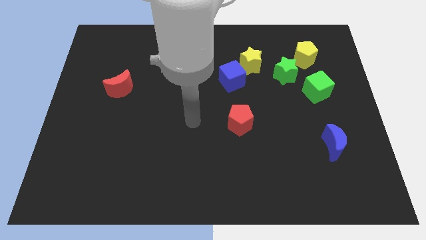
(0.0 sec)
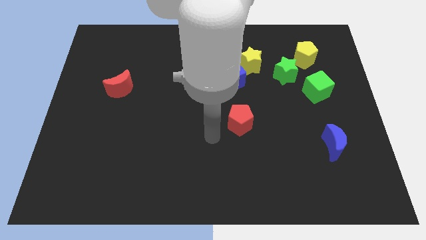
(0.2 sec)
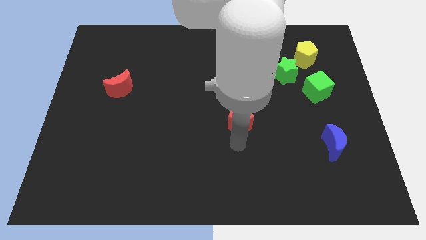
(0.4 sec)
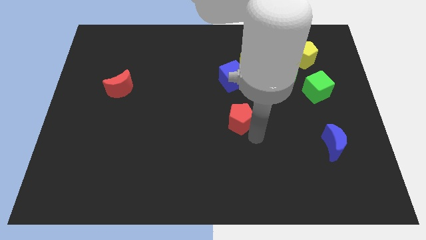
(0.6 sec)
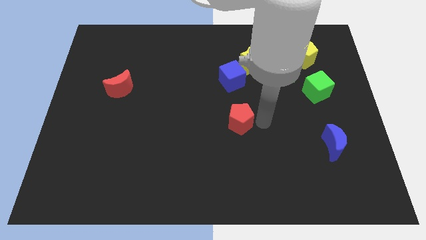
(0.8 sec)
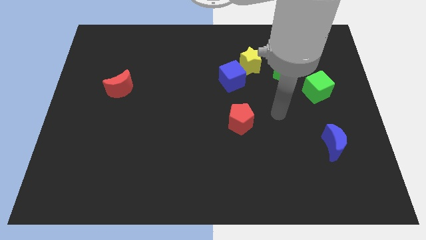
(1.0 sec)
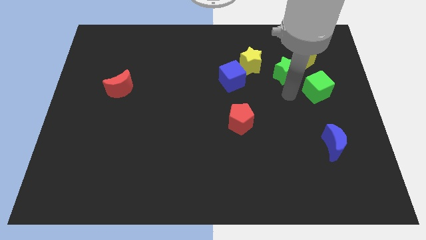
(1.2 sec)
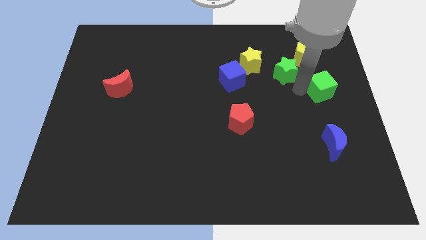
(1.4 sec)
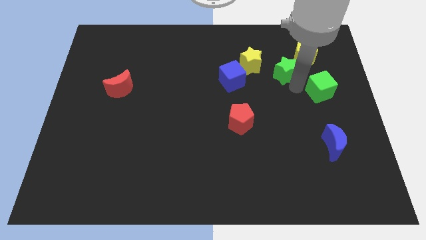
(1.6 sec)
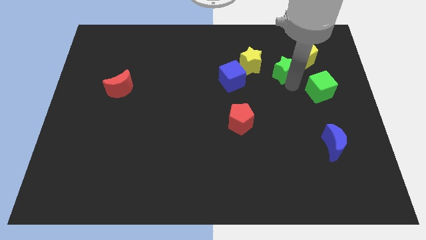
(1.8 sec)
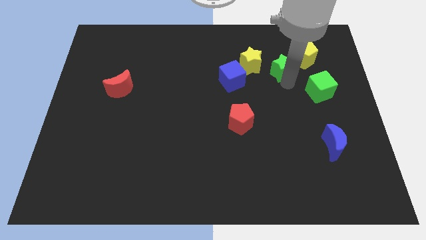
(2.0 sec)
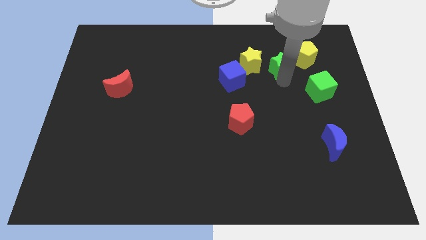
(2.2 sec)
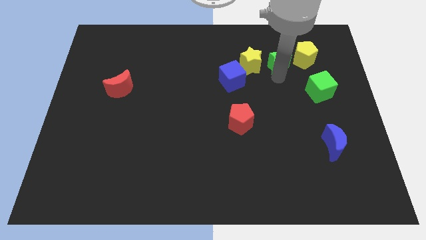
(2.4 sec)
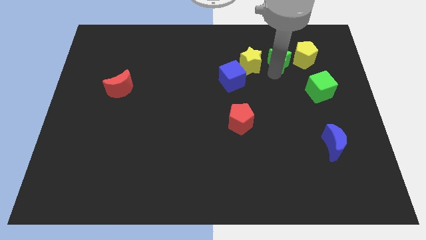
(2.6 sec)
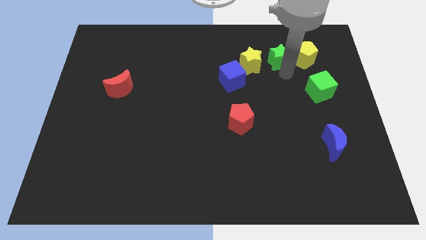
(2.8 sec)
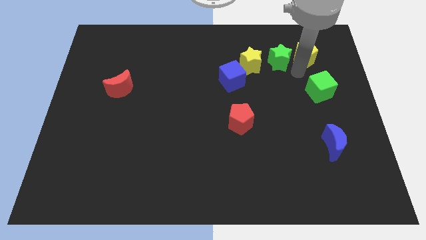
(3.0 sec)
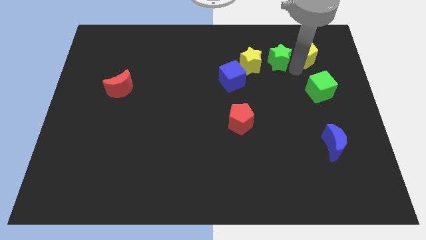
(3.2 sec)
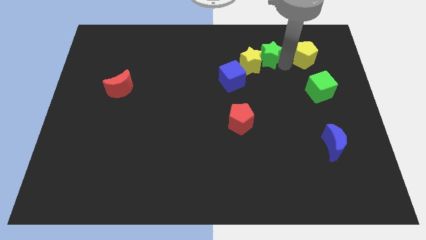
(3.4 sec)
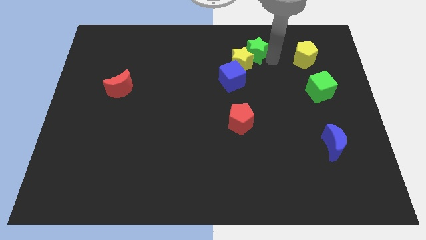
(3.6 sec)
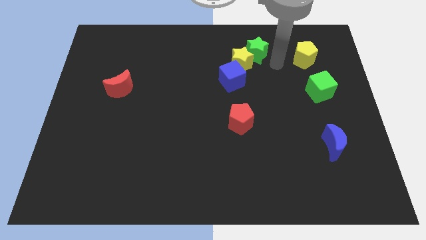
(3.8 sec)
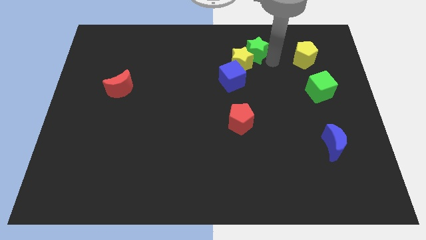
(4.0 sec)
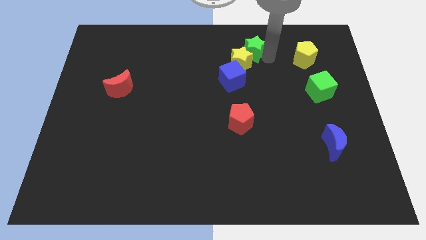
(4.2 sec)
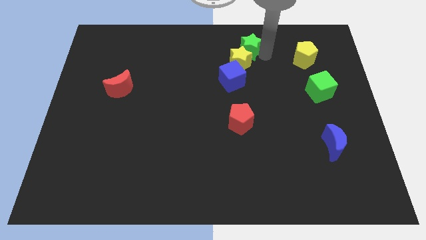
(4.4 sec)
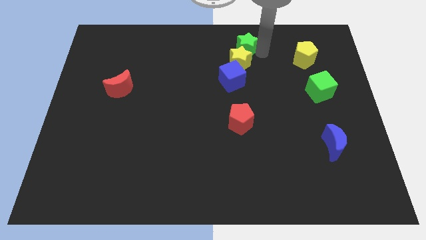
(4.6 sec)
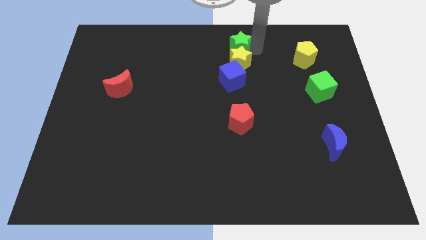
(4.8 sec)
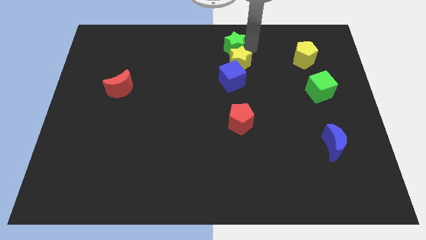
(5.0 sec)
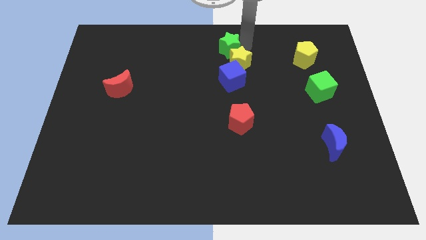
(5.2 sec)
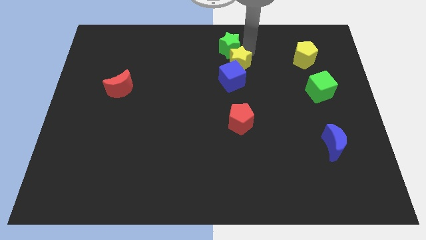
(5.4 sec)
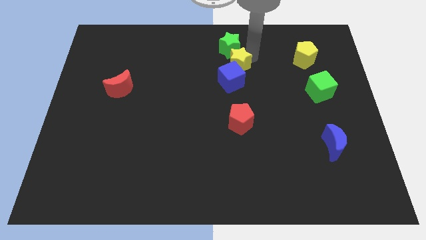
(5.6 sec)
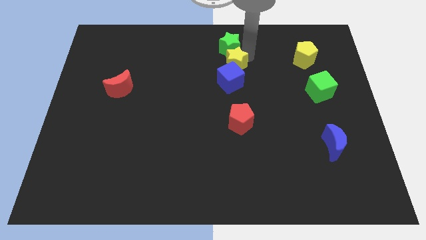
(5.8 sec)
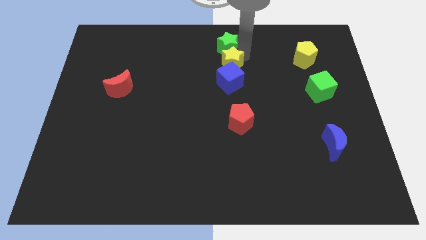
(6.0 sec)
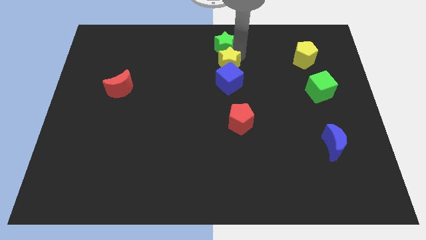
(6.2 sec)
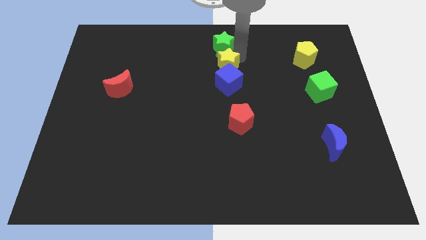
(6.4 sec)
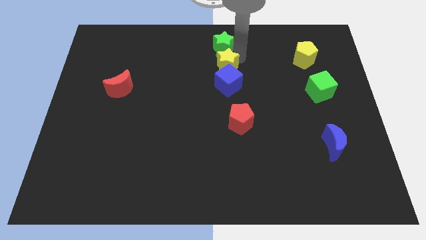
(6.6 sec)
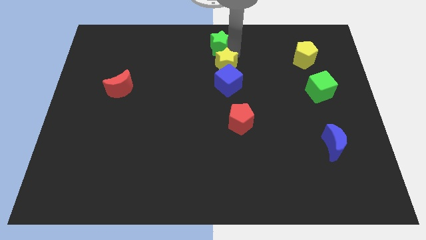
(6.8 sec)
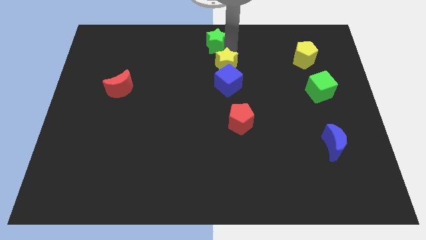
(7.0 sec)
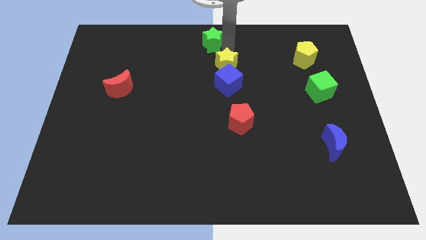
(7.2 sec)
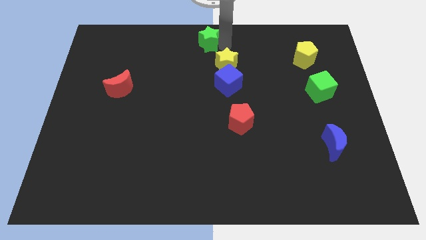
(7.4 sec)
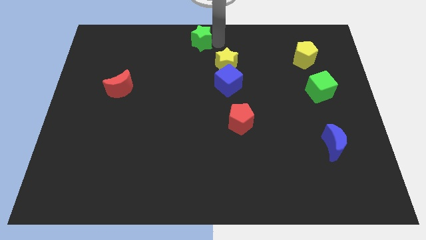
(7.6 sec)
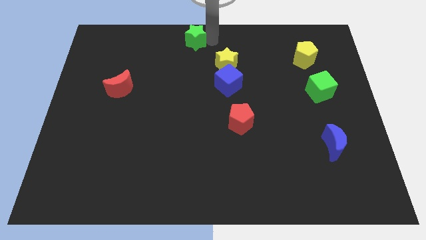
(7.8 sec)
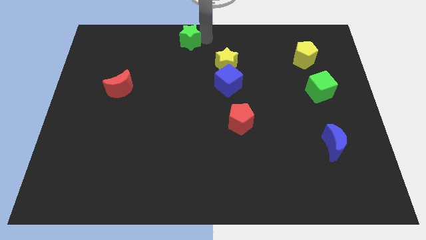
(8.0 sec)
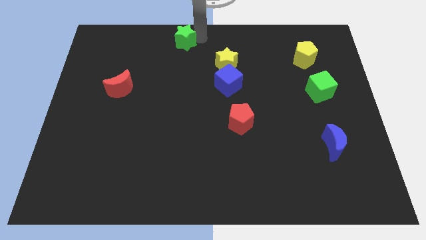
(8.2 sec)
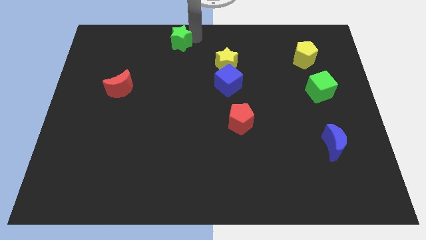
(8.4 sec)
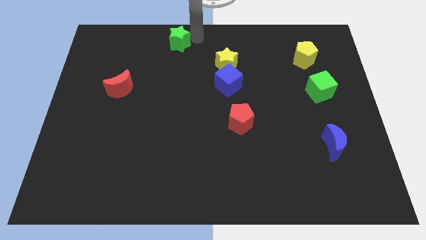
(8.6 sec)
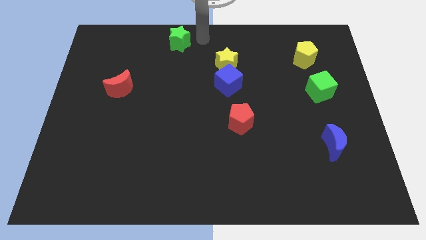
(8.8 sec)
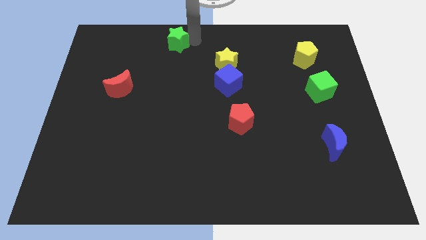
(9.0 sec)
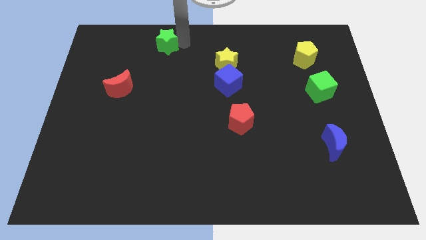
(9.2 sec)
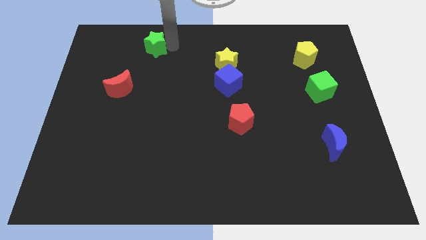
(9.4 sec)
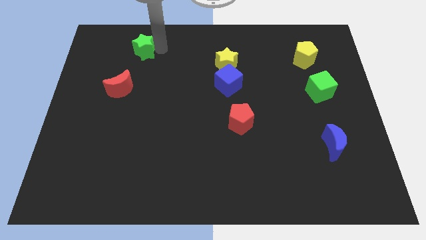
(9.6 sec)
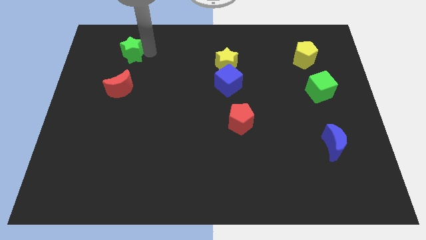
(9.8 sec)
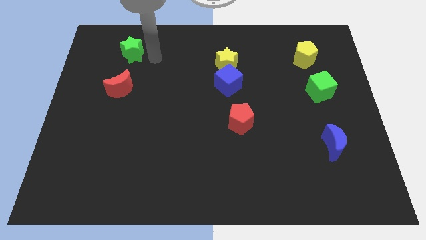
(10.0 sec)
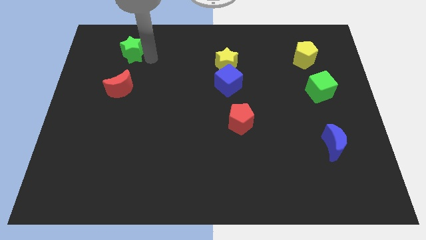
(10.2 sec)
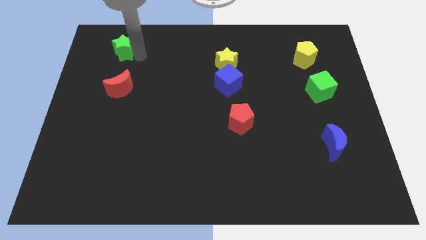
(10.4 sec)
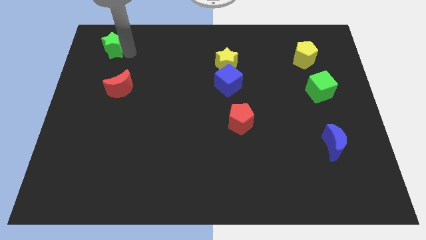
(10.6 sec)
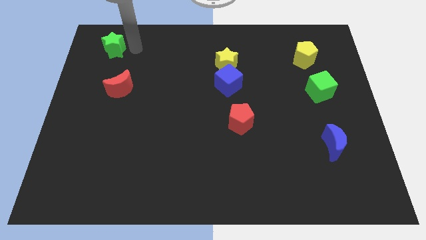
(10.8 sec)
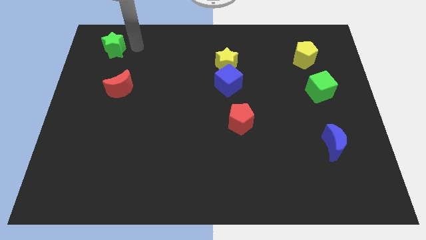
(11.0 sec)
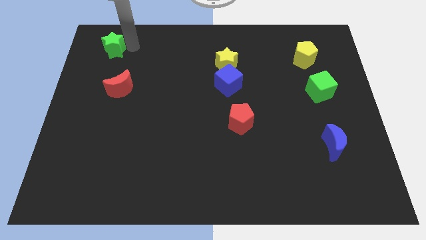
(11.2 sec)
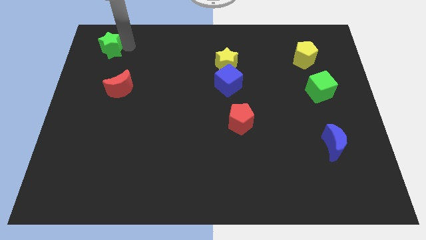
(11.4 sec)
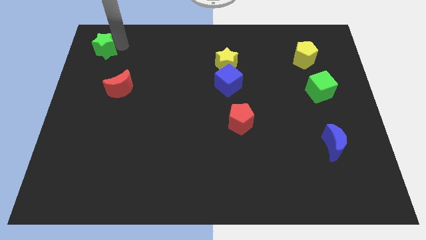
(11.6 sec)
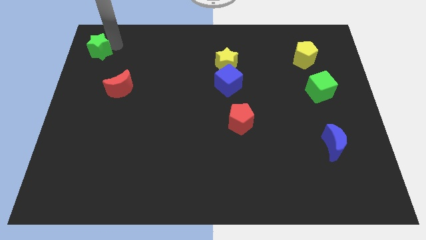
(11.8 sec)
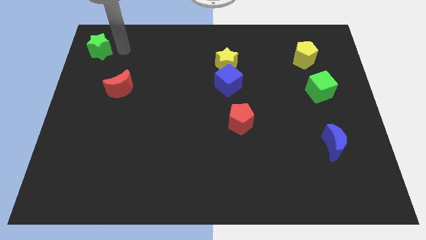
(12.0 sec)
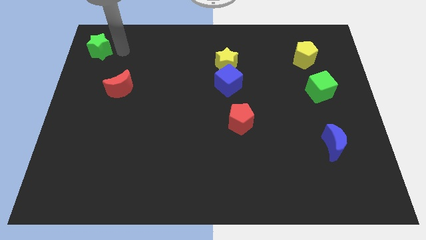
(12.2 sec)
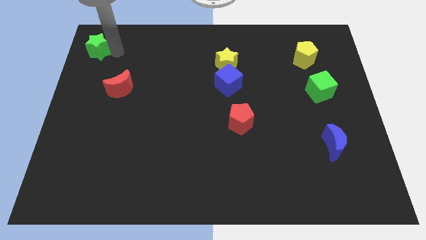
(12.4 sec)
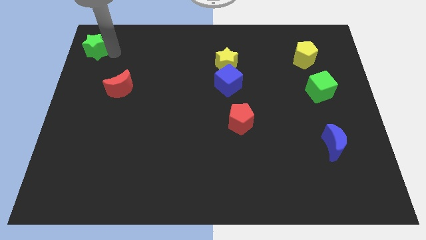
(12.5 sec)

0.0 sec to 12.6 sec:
put the green star to the upper left corner

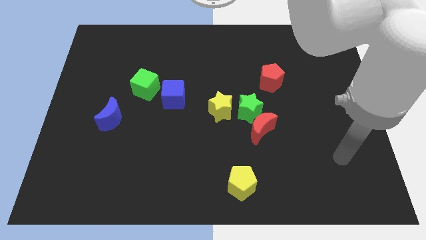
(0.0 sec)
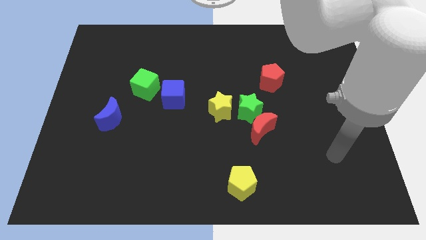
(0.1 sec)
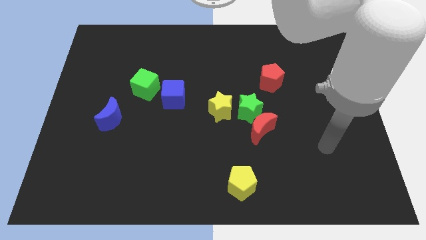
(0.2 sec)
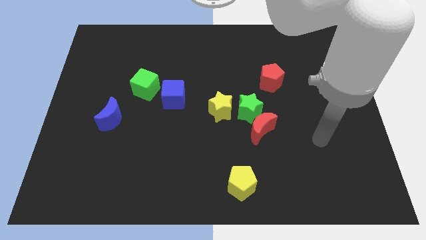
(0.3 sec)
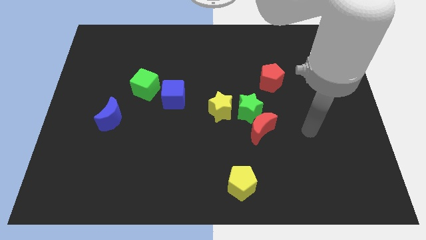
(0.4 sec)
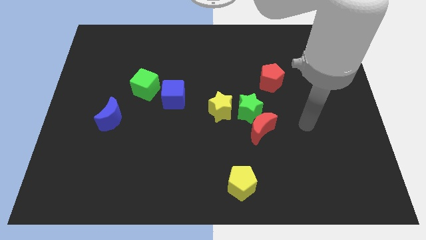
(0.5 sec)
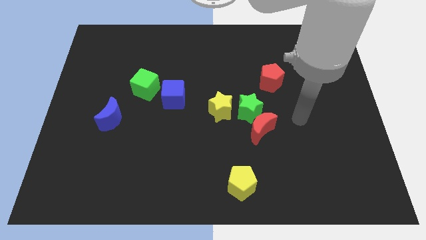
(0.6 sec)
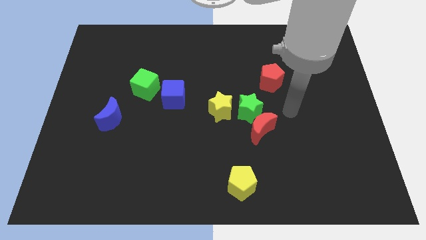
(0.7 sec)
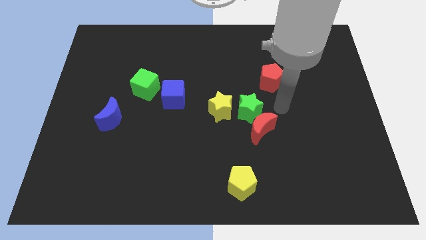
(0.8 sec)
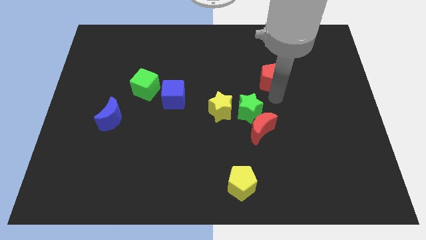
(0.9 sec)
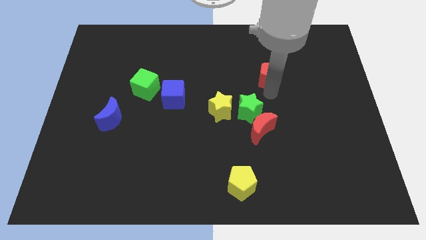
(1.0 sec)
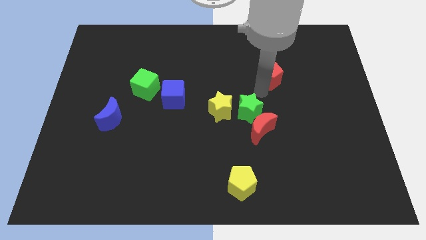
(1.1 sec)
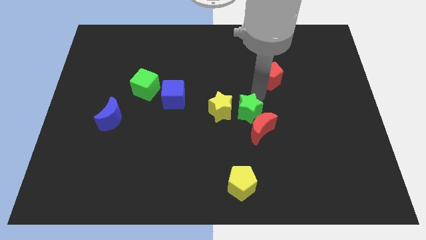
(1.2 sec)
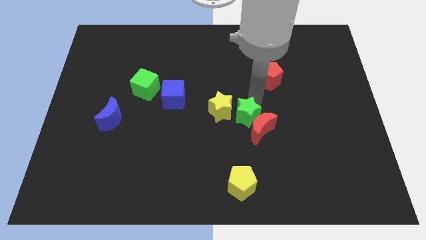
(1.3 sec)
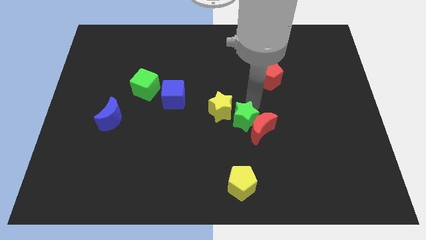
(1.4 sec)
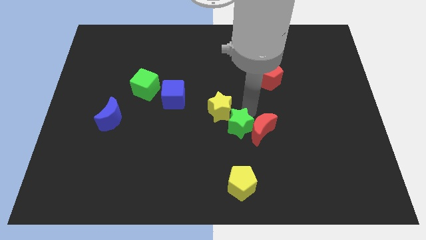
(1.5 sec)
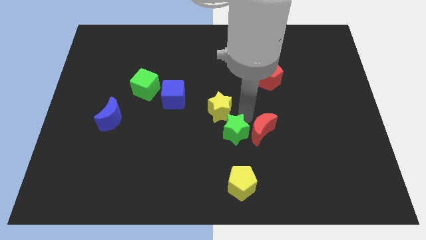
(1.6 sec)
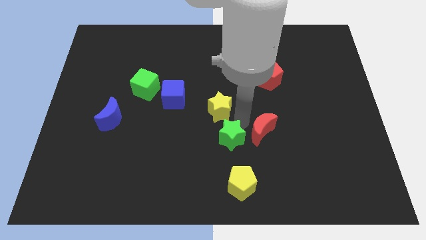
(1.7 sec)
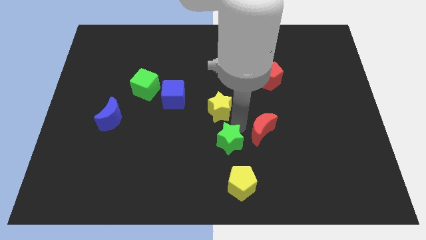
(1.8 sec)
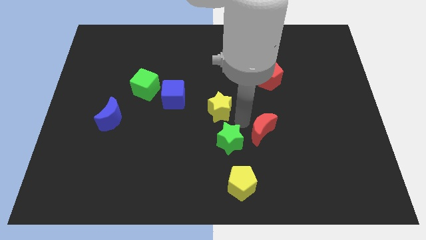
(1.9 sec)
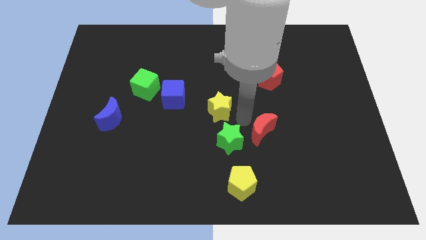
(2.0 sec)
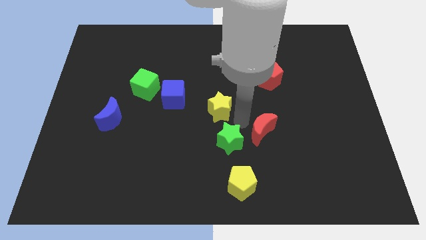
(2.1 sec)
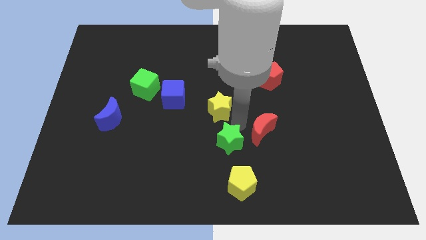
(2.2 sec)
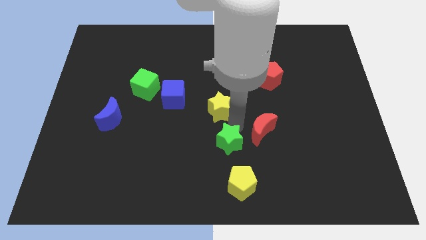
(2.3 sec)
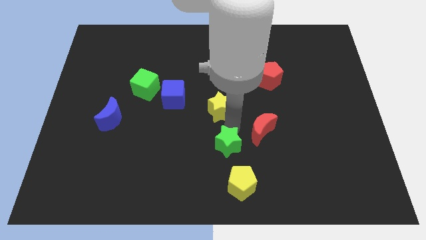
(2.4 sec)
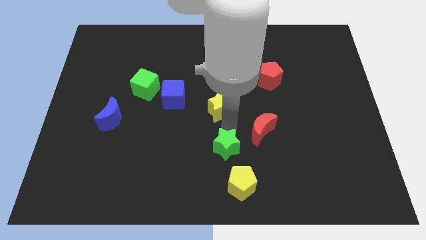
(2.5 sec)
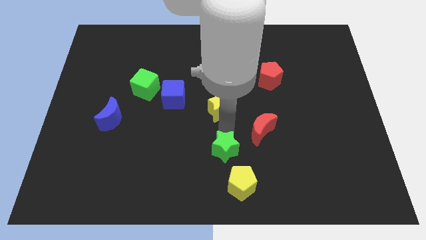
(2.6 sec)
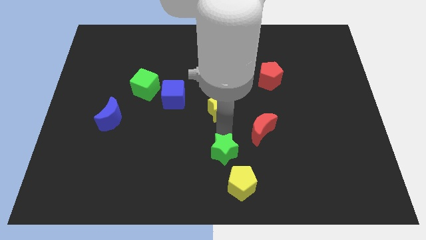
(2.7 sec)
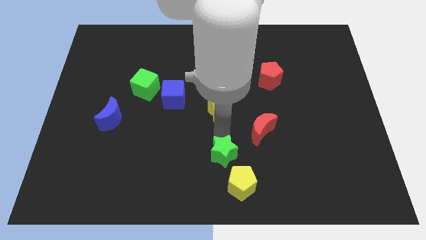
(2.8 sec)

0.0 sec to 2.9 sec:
push the green star to the bottom side
